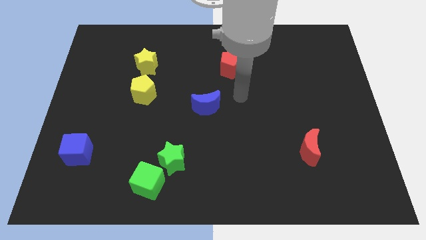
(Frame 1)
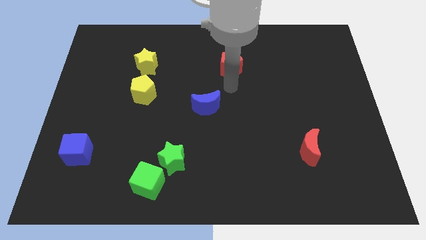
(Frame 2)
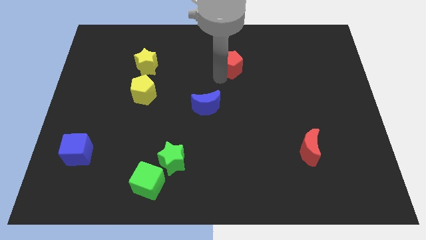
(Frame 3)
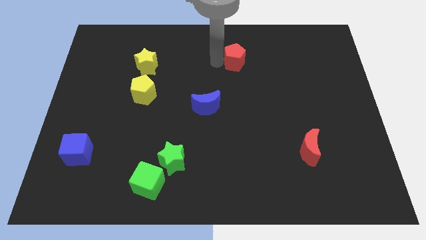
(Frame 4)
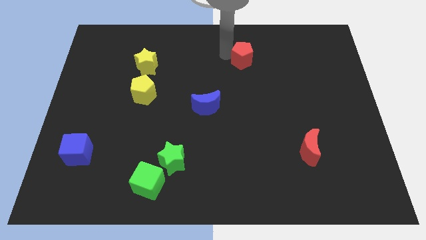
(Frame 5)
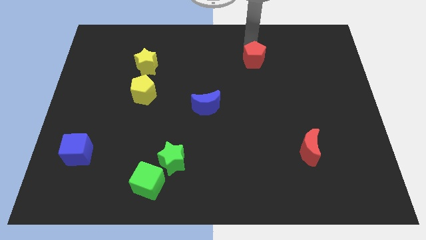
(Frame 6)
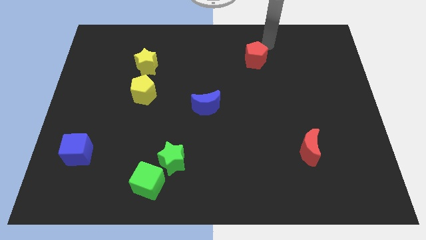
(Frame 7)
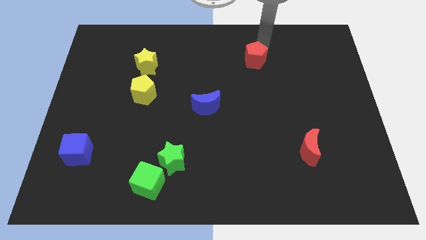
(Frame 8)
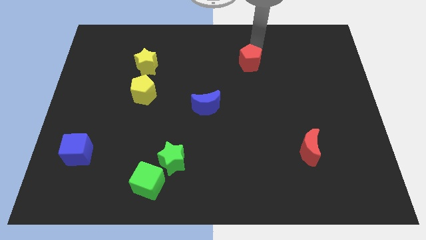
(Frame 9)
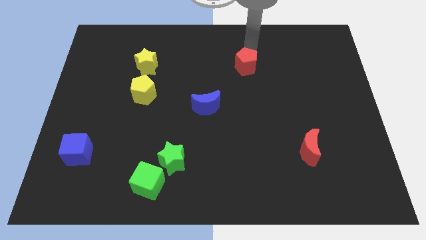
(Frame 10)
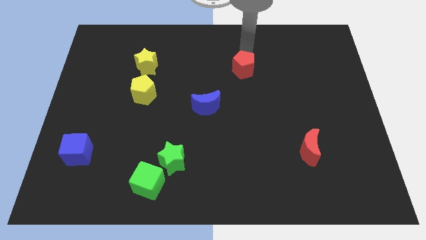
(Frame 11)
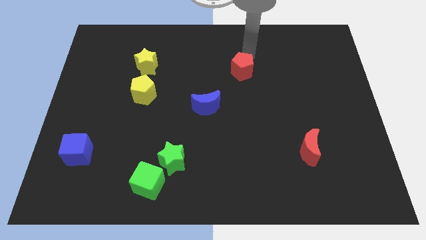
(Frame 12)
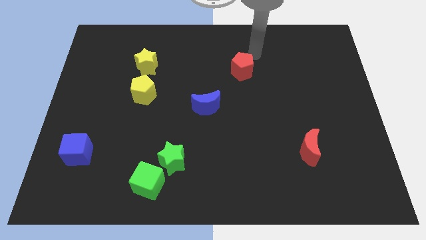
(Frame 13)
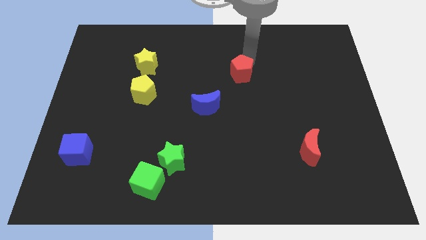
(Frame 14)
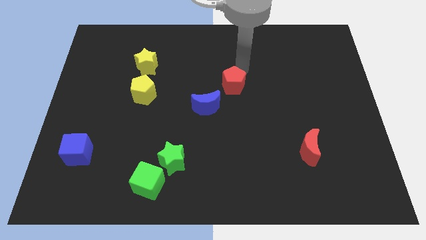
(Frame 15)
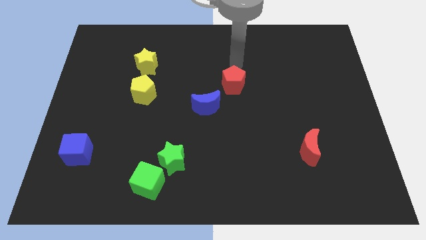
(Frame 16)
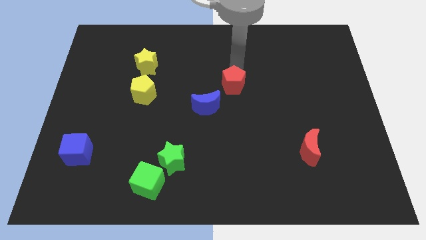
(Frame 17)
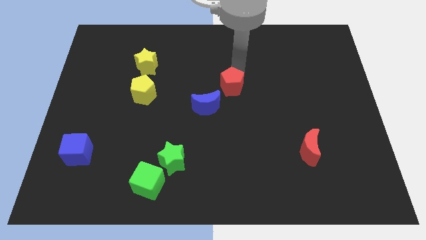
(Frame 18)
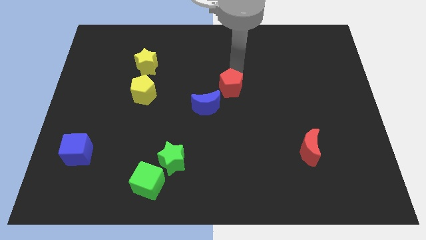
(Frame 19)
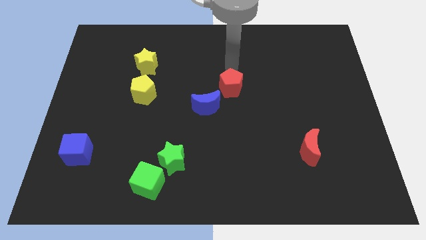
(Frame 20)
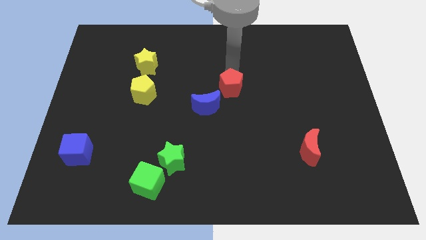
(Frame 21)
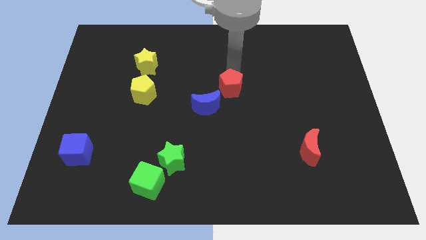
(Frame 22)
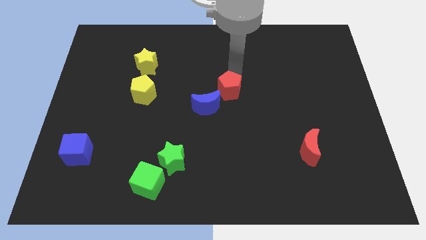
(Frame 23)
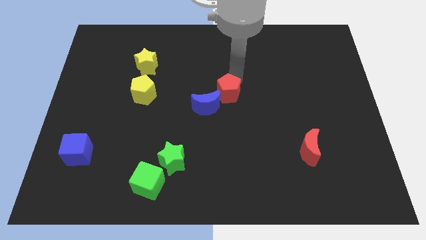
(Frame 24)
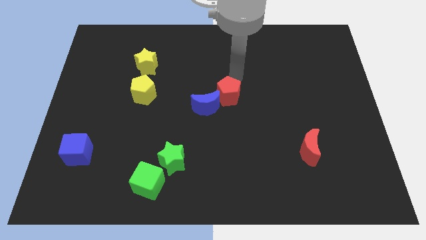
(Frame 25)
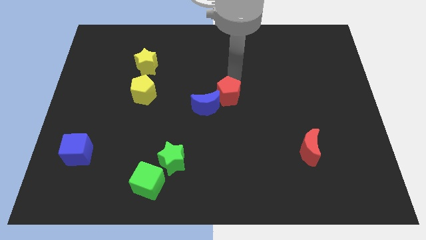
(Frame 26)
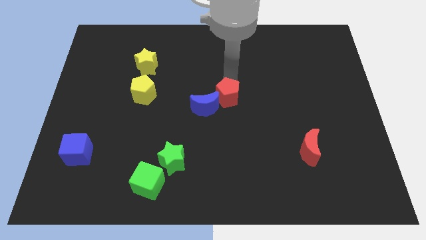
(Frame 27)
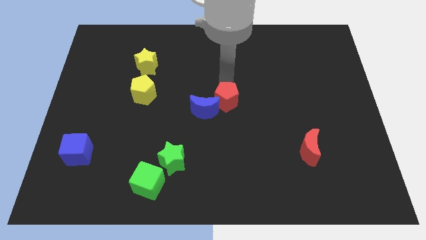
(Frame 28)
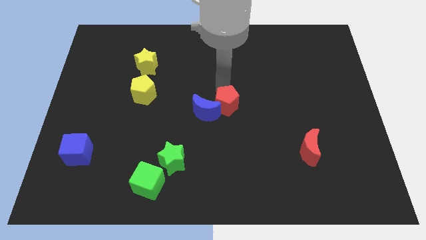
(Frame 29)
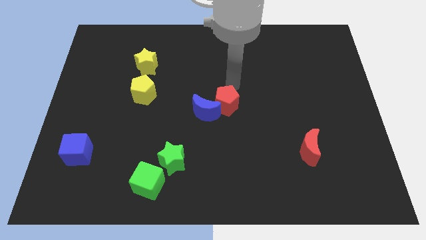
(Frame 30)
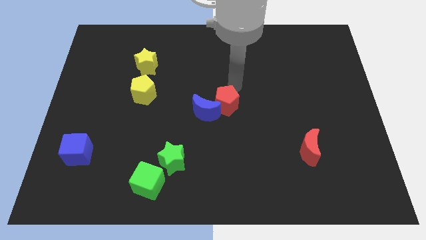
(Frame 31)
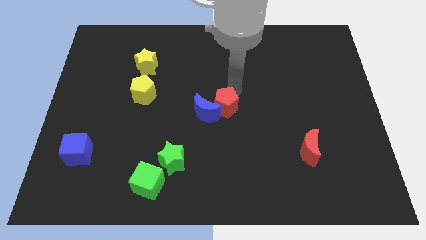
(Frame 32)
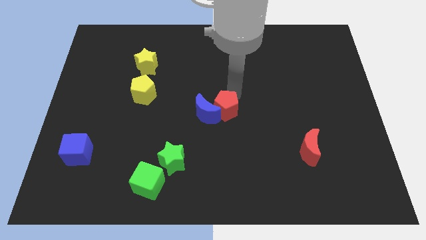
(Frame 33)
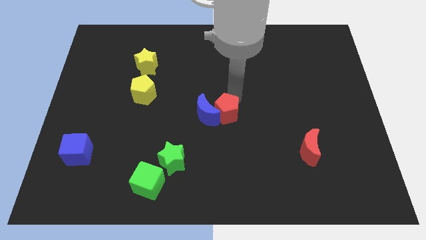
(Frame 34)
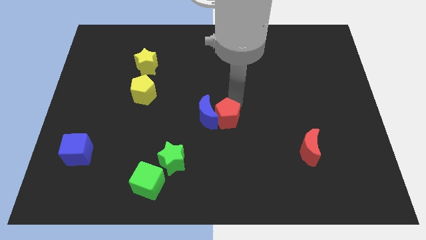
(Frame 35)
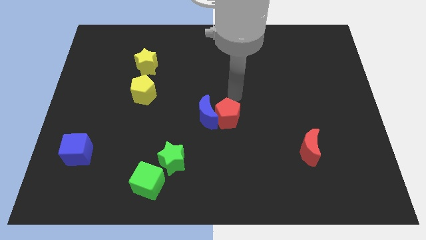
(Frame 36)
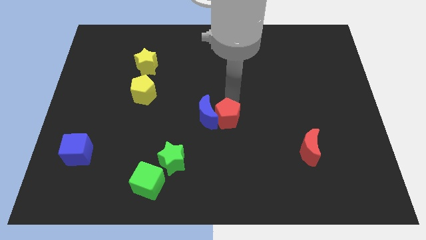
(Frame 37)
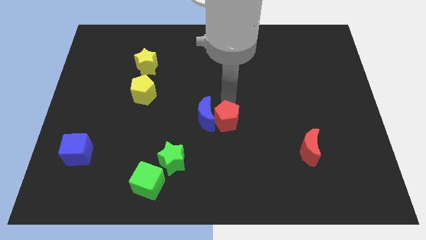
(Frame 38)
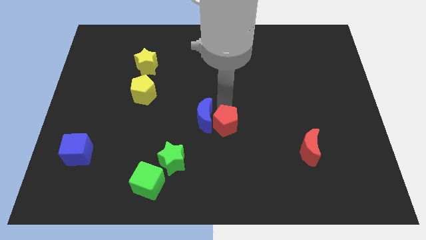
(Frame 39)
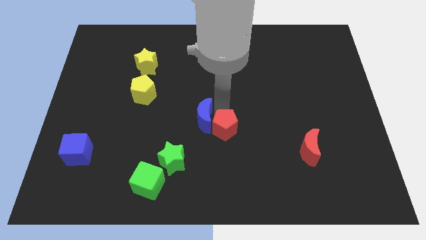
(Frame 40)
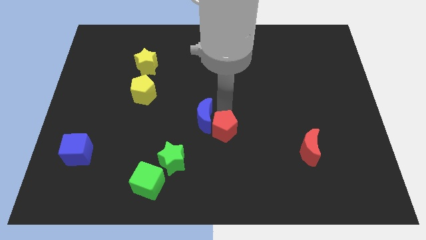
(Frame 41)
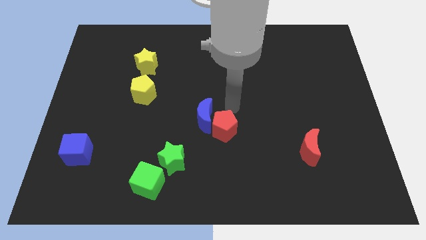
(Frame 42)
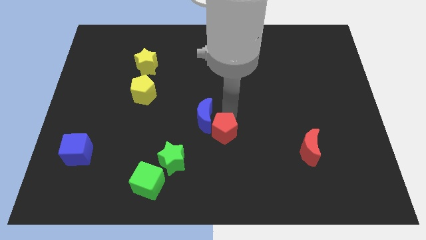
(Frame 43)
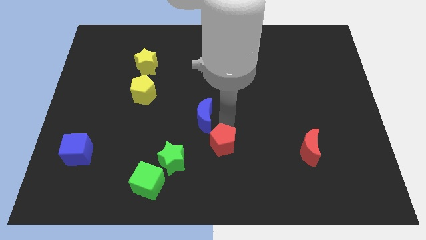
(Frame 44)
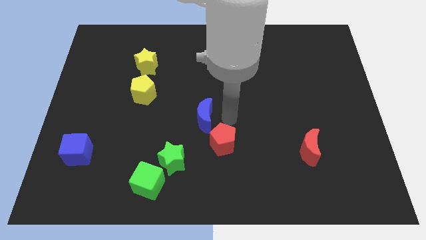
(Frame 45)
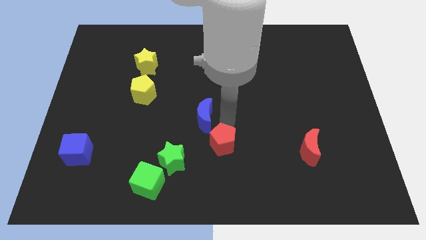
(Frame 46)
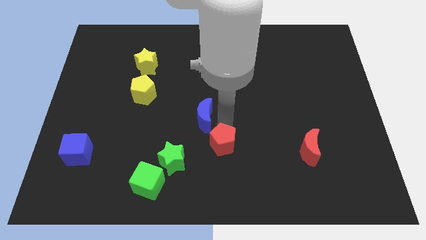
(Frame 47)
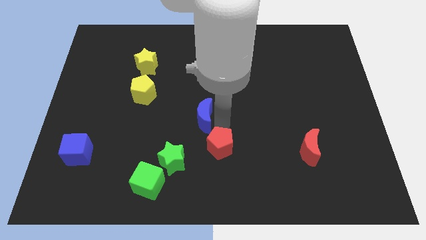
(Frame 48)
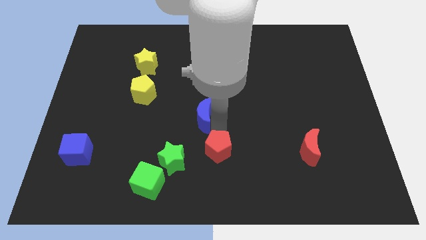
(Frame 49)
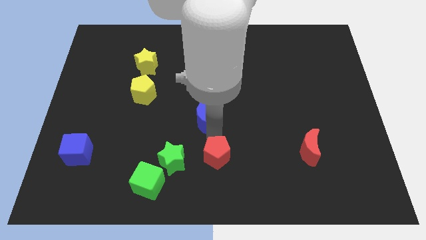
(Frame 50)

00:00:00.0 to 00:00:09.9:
move the red pentagon to the bottom

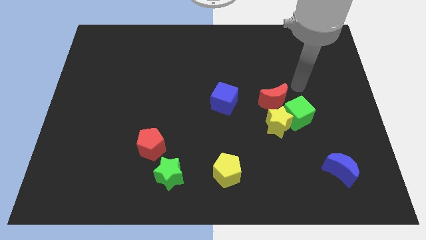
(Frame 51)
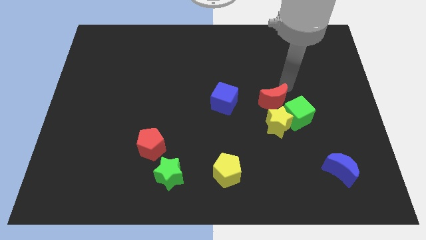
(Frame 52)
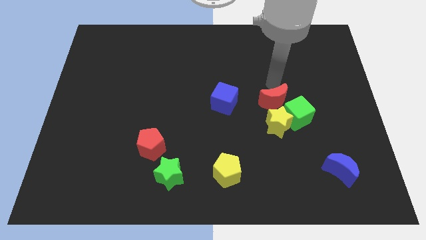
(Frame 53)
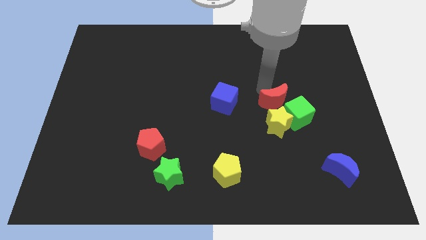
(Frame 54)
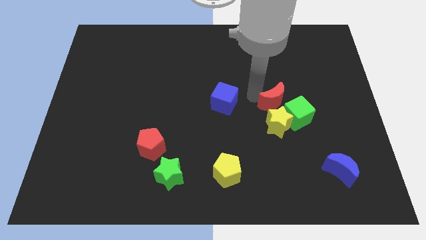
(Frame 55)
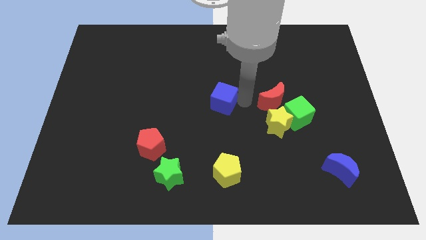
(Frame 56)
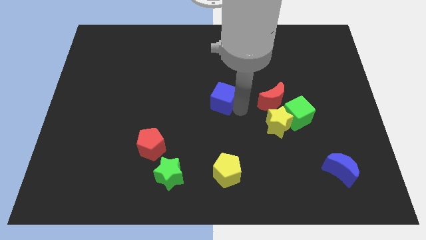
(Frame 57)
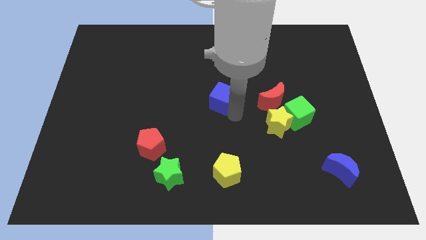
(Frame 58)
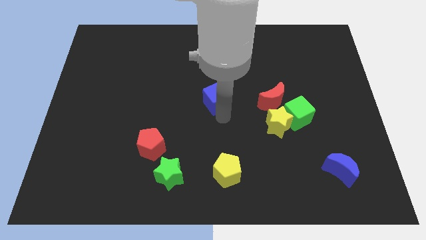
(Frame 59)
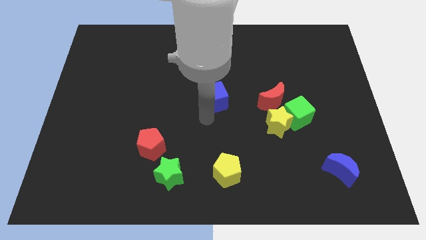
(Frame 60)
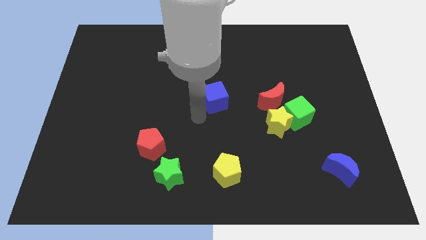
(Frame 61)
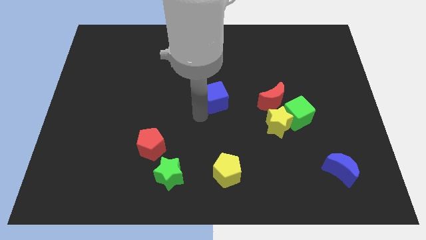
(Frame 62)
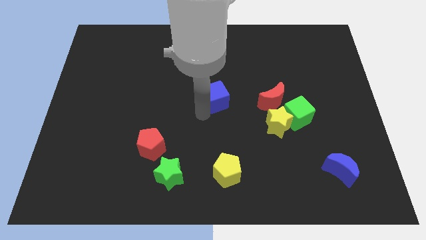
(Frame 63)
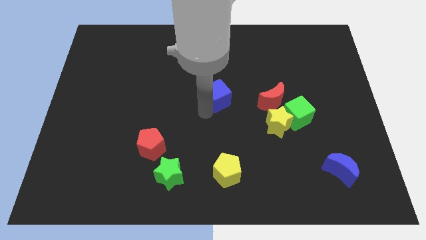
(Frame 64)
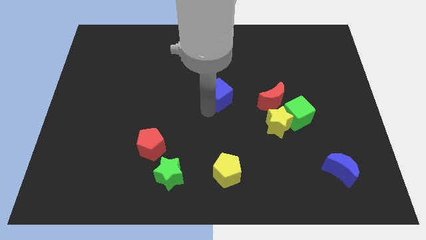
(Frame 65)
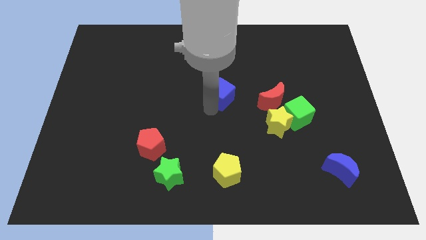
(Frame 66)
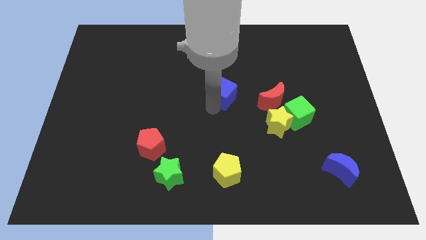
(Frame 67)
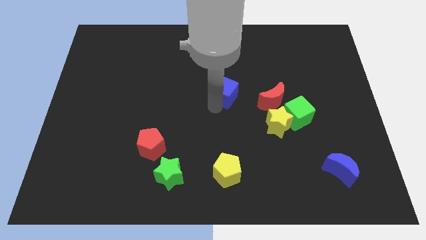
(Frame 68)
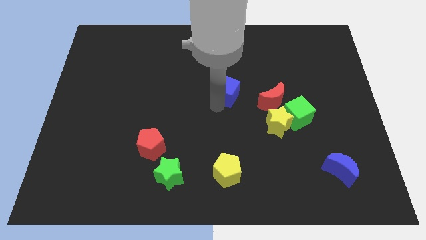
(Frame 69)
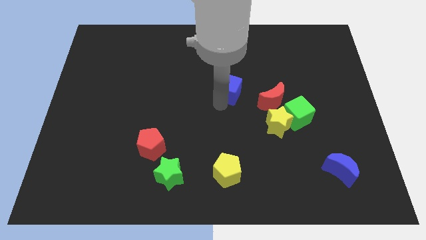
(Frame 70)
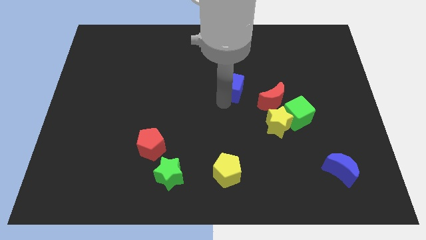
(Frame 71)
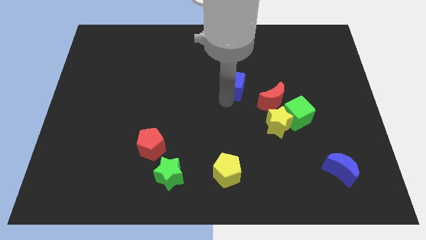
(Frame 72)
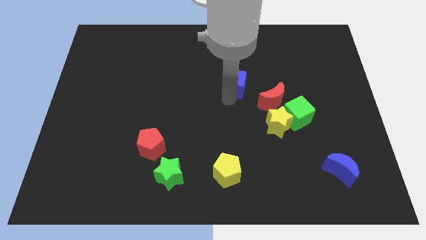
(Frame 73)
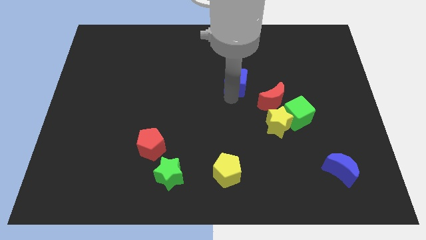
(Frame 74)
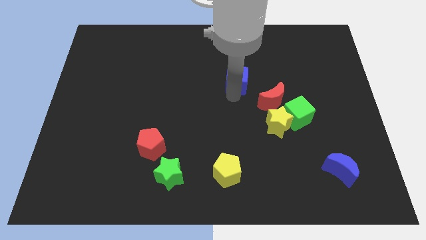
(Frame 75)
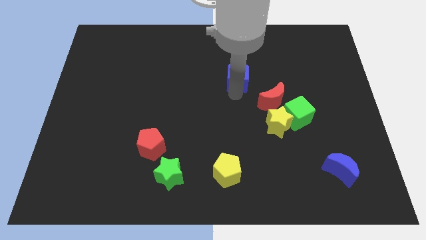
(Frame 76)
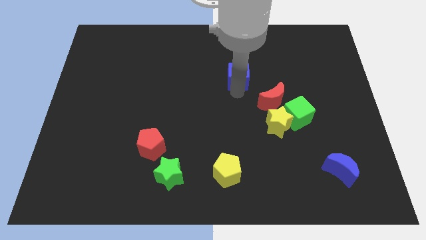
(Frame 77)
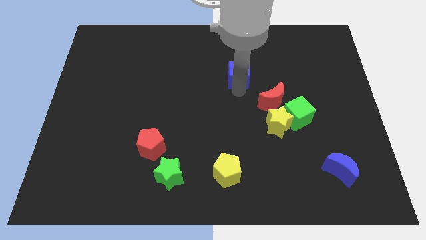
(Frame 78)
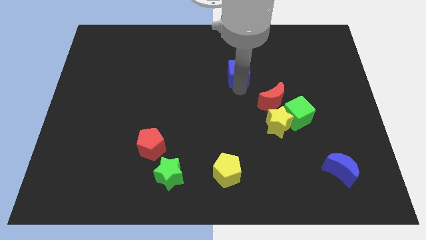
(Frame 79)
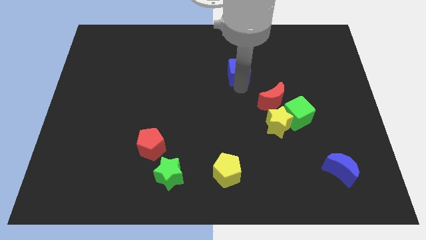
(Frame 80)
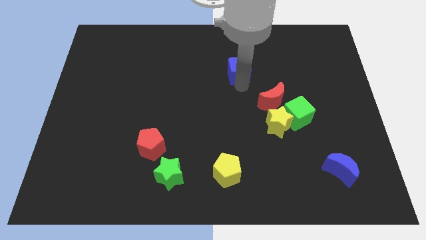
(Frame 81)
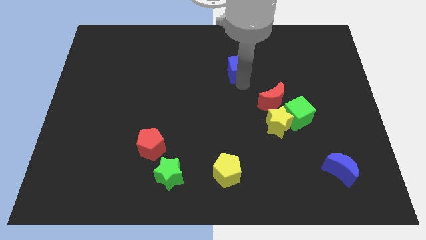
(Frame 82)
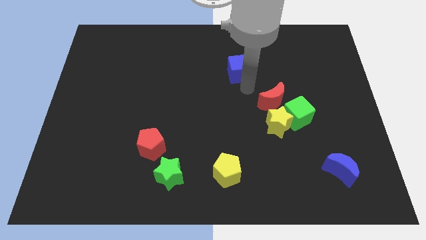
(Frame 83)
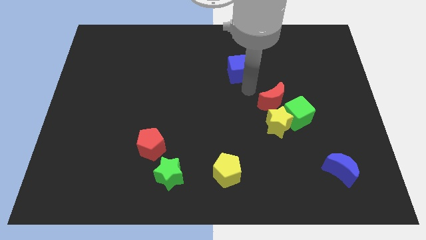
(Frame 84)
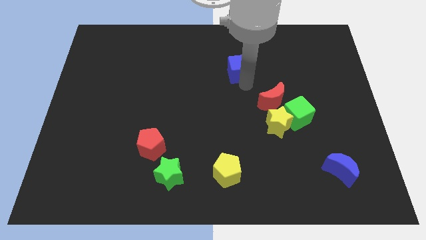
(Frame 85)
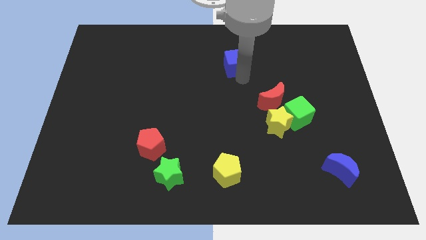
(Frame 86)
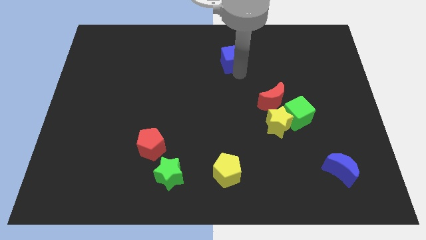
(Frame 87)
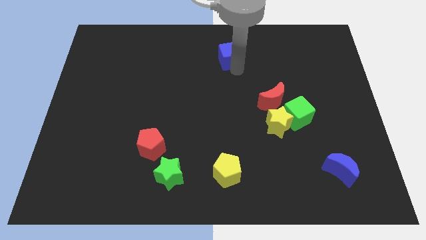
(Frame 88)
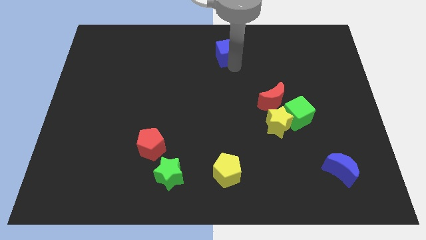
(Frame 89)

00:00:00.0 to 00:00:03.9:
put the blue cube to the top side
